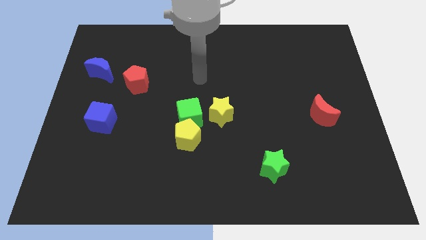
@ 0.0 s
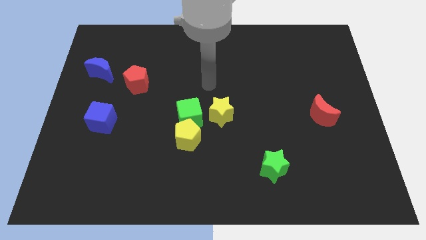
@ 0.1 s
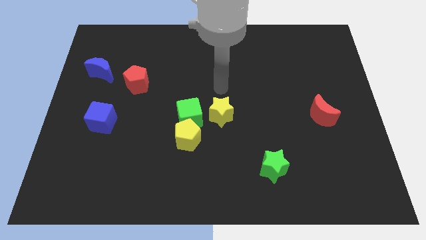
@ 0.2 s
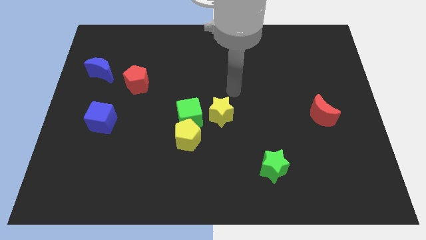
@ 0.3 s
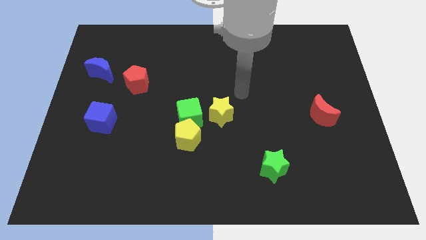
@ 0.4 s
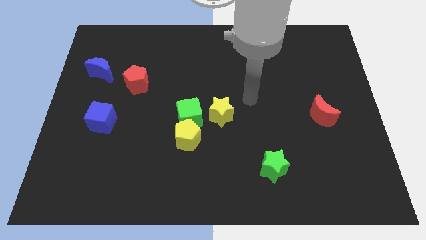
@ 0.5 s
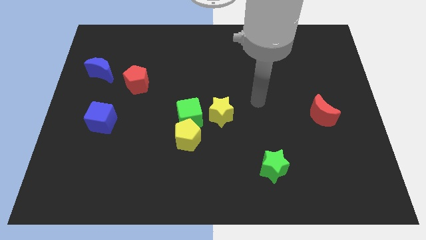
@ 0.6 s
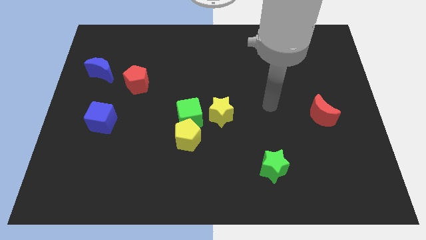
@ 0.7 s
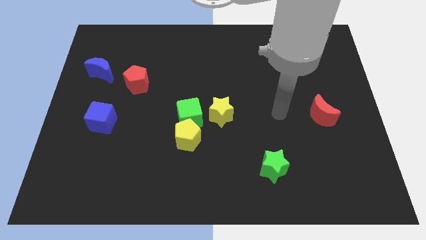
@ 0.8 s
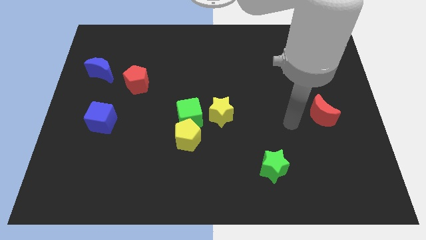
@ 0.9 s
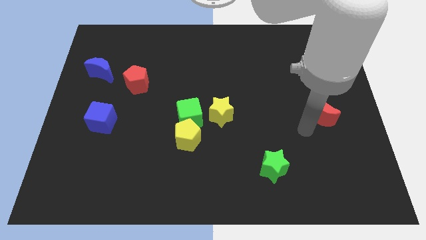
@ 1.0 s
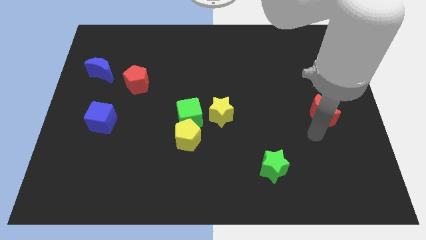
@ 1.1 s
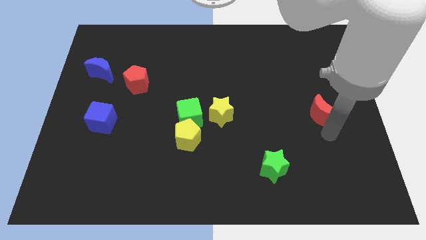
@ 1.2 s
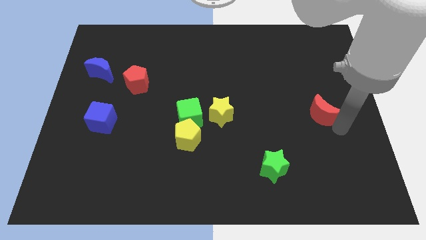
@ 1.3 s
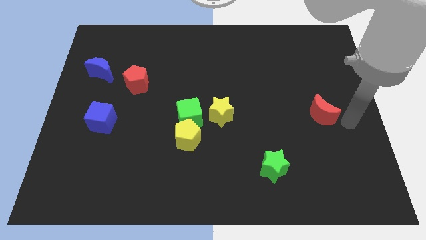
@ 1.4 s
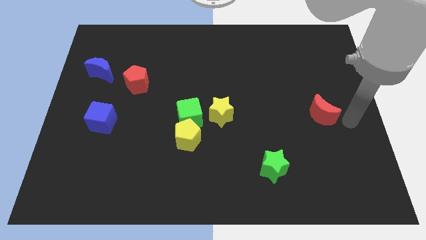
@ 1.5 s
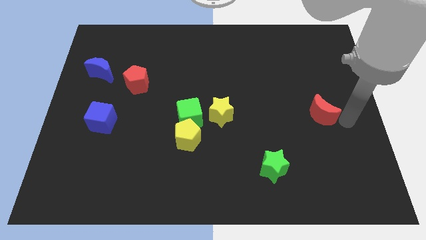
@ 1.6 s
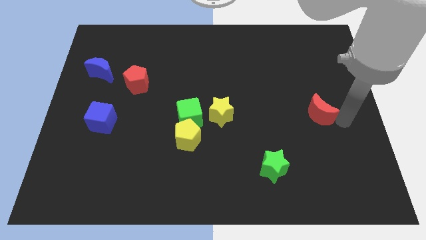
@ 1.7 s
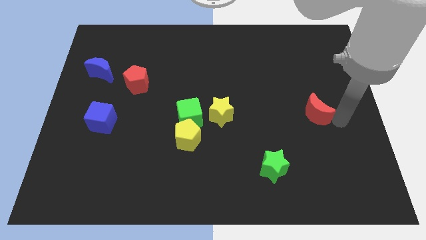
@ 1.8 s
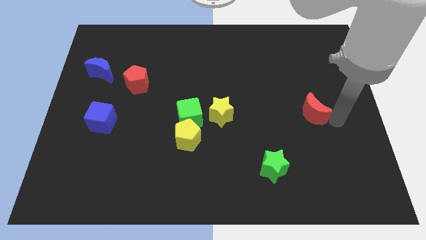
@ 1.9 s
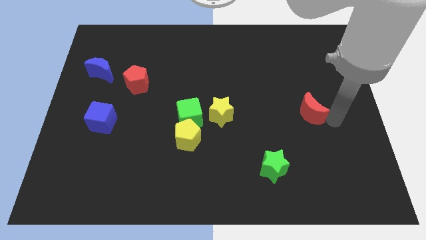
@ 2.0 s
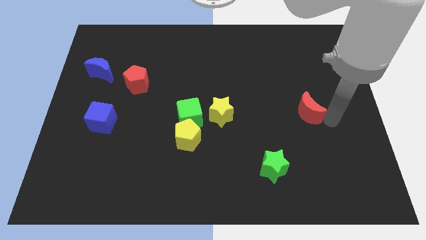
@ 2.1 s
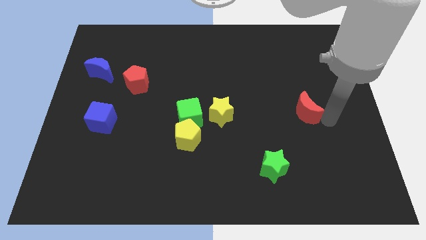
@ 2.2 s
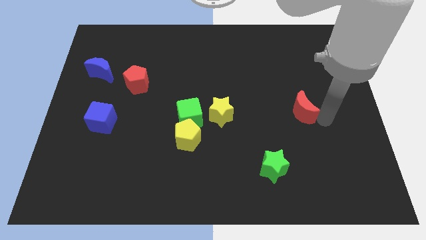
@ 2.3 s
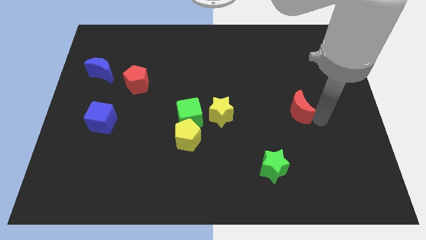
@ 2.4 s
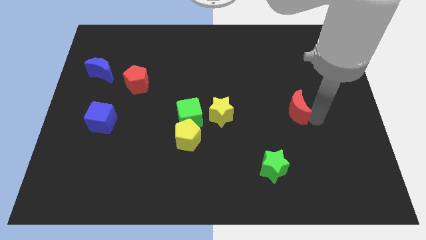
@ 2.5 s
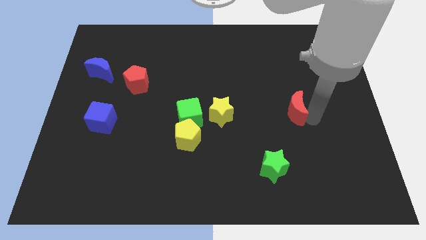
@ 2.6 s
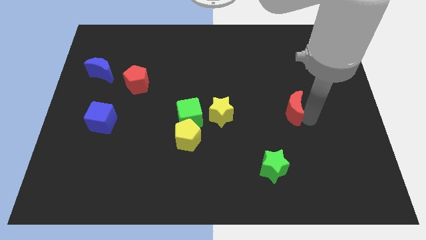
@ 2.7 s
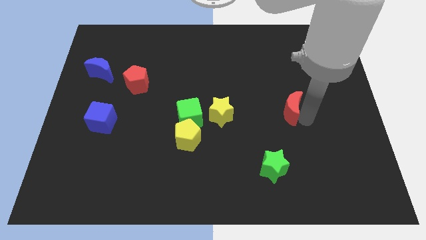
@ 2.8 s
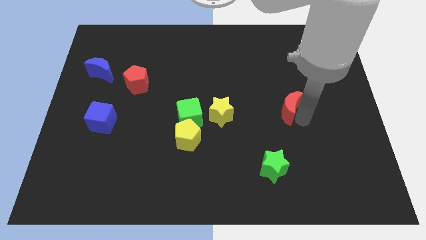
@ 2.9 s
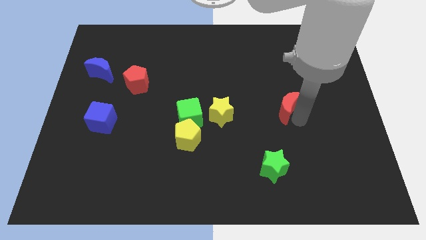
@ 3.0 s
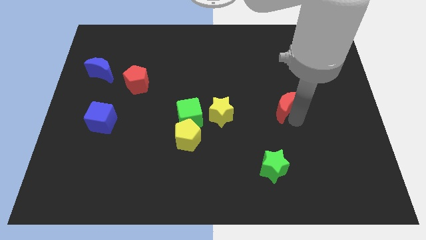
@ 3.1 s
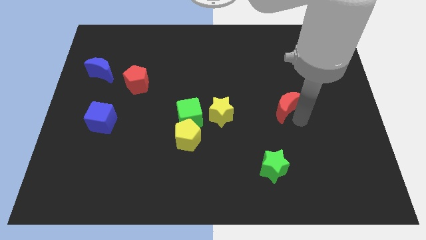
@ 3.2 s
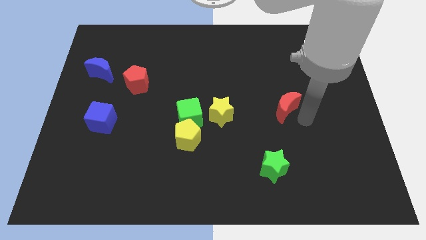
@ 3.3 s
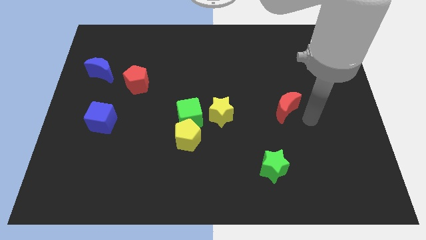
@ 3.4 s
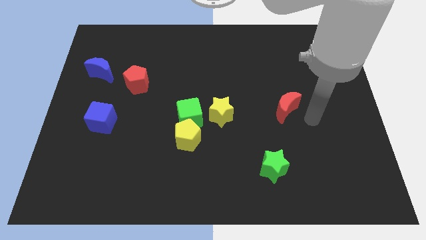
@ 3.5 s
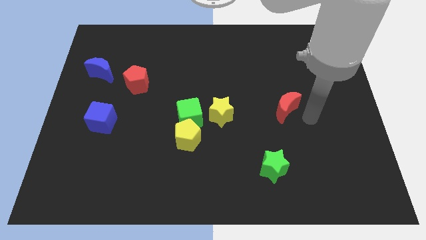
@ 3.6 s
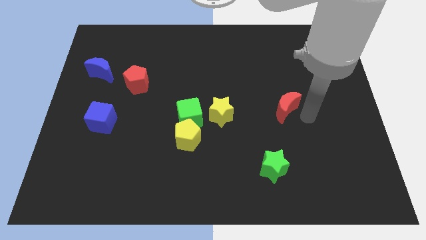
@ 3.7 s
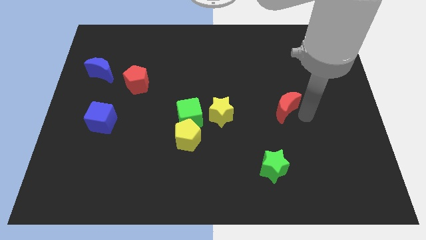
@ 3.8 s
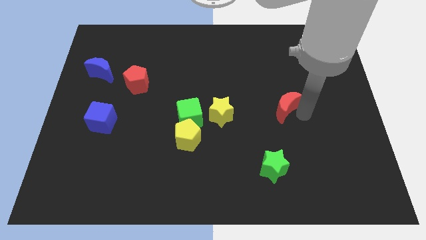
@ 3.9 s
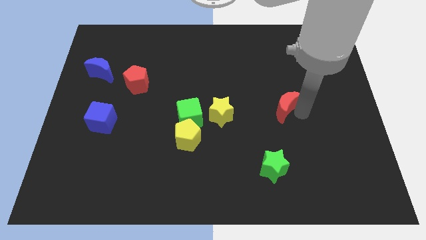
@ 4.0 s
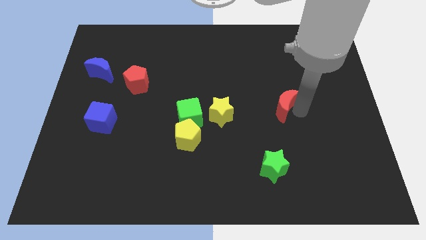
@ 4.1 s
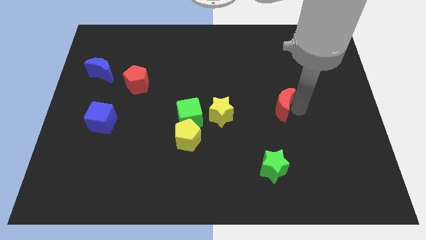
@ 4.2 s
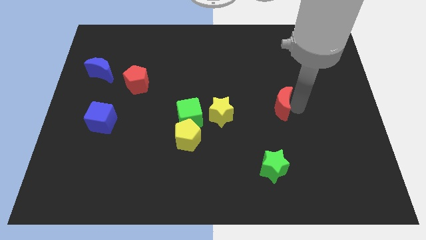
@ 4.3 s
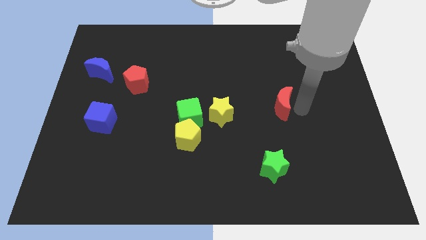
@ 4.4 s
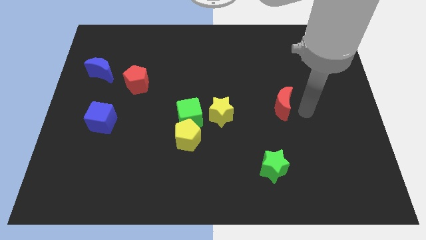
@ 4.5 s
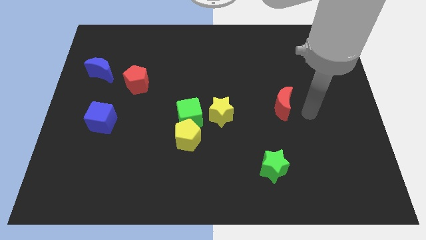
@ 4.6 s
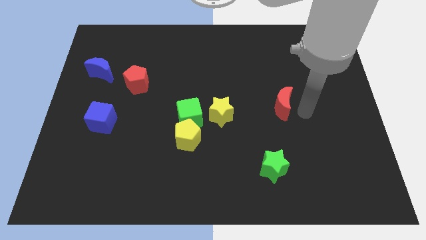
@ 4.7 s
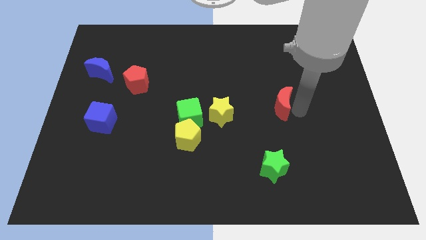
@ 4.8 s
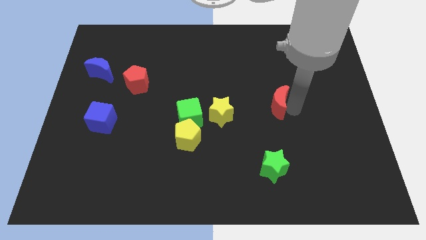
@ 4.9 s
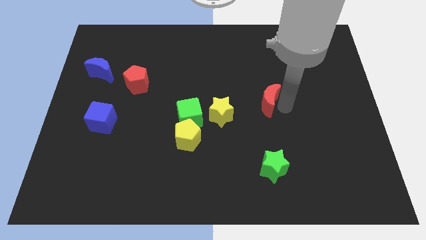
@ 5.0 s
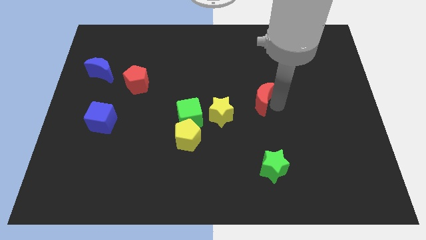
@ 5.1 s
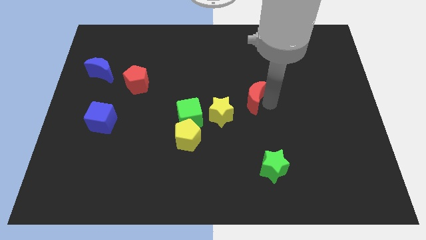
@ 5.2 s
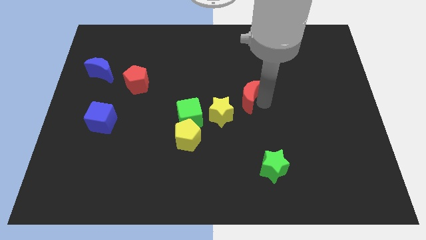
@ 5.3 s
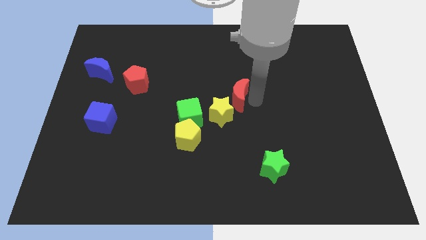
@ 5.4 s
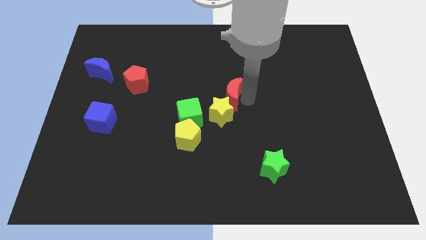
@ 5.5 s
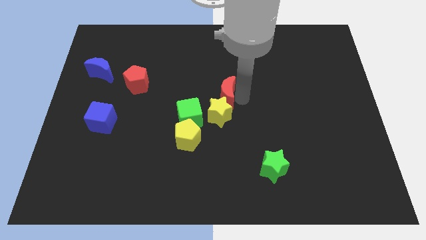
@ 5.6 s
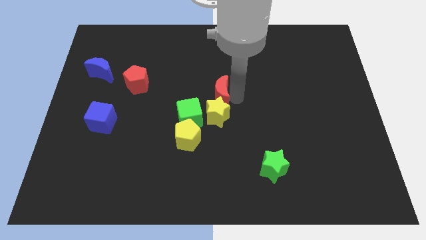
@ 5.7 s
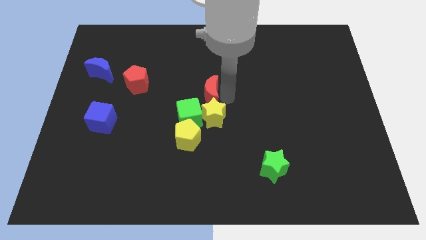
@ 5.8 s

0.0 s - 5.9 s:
put the red moon to the top side of the green cube

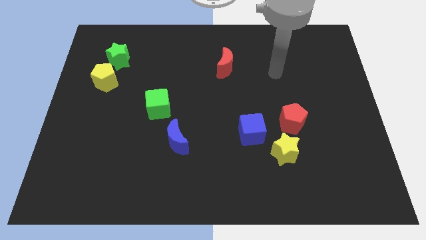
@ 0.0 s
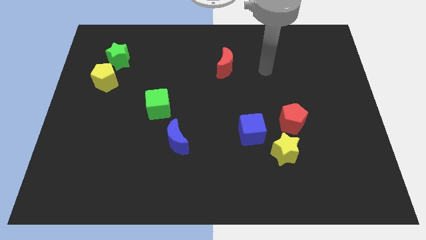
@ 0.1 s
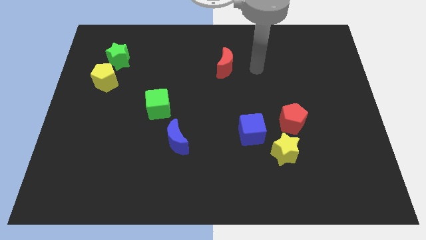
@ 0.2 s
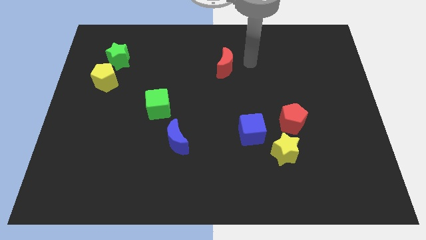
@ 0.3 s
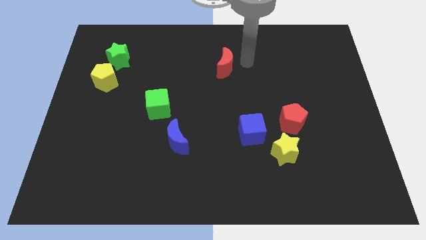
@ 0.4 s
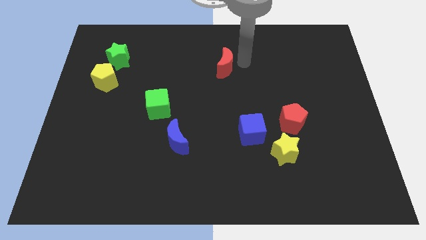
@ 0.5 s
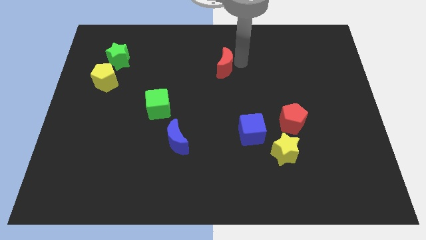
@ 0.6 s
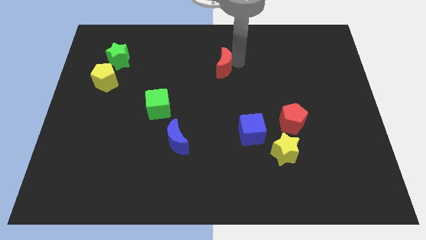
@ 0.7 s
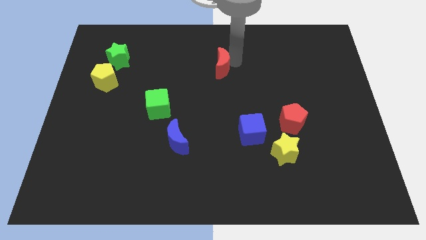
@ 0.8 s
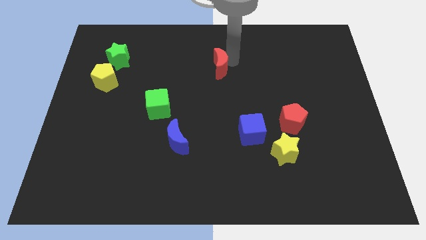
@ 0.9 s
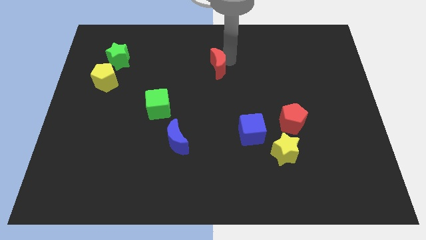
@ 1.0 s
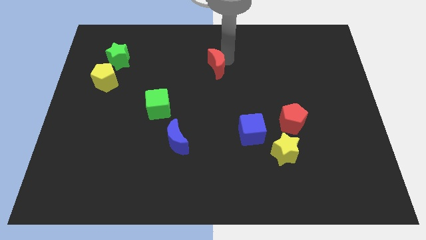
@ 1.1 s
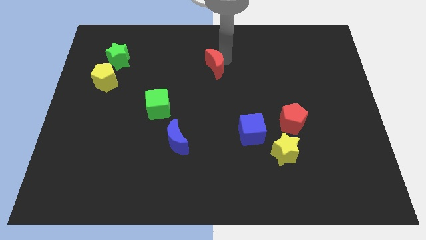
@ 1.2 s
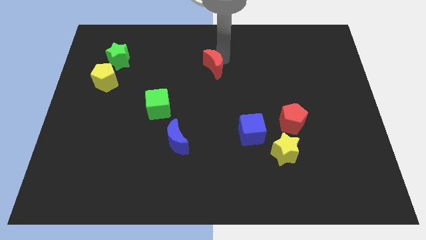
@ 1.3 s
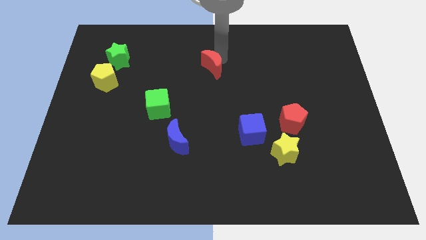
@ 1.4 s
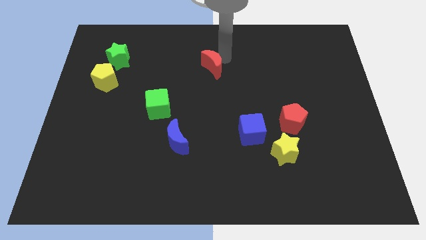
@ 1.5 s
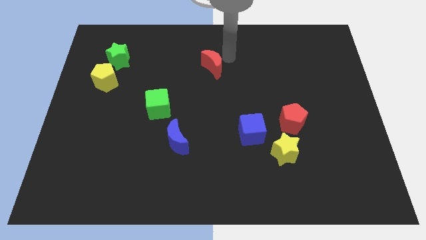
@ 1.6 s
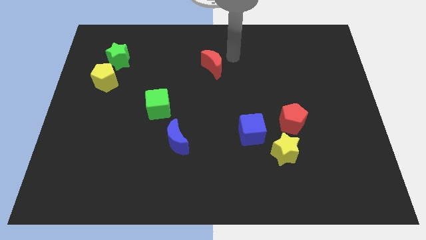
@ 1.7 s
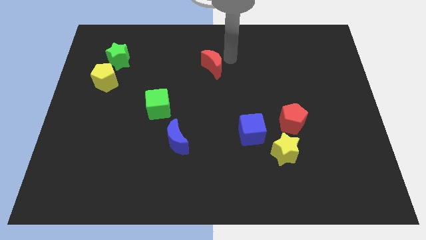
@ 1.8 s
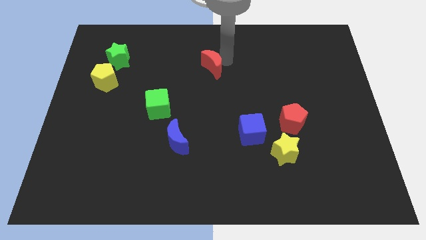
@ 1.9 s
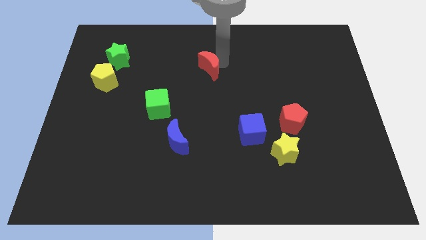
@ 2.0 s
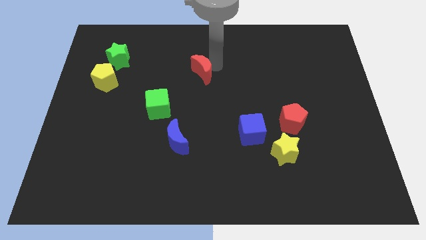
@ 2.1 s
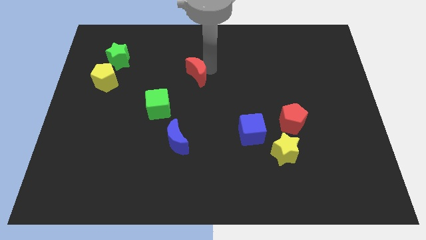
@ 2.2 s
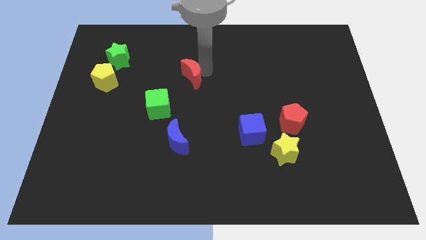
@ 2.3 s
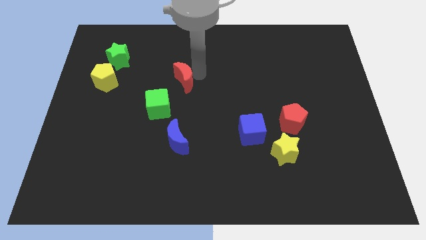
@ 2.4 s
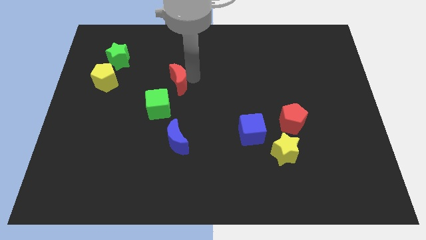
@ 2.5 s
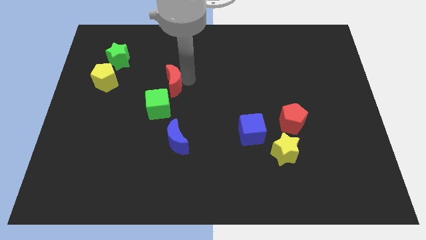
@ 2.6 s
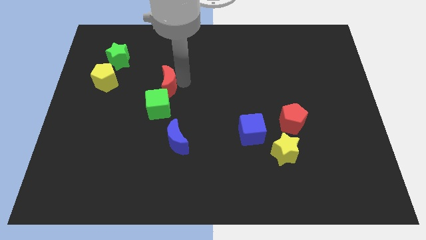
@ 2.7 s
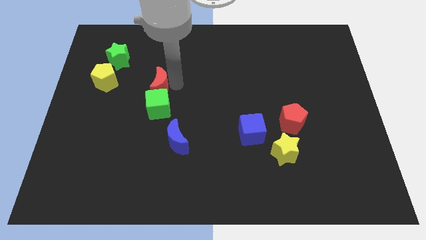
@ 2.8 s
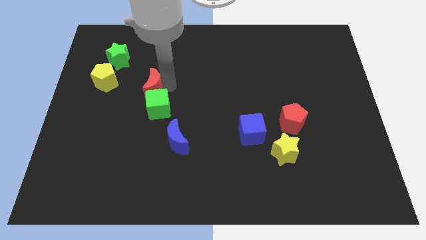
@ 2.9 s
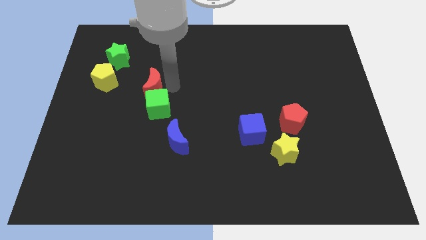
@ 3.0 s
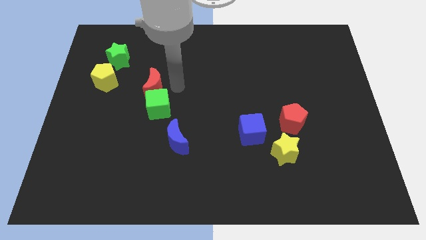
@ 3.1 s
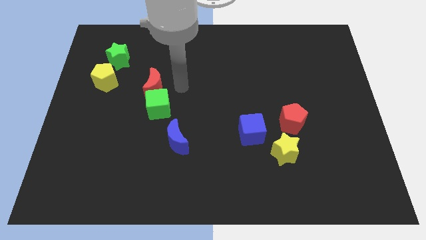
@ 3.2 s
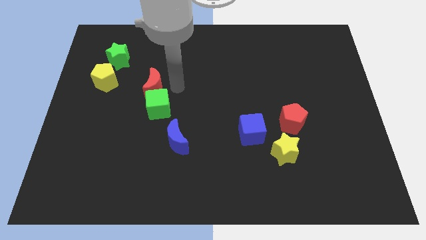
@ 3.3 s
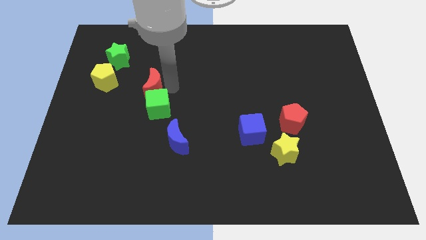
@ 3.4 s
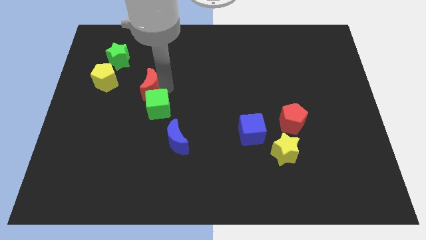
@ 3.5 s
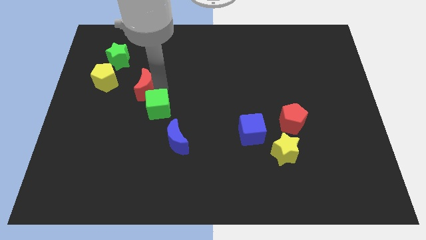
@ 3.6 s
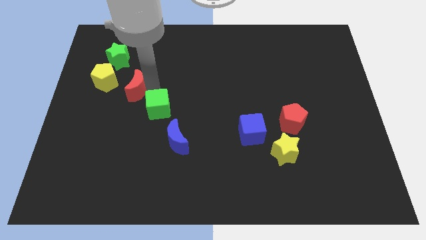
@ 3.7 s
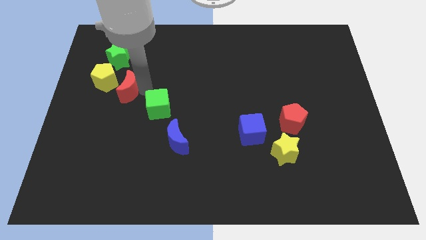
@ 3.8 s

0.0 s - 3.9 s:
move the red moon to the bottom side of the green star
